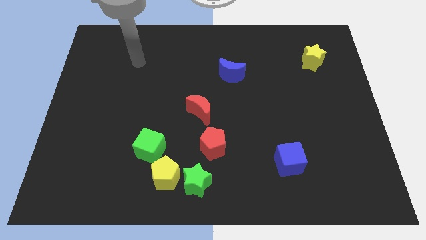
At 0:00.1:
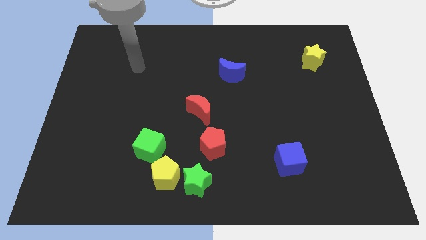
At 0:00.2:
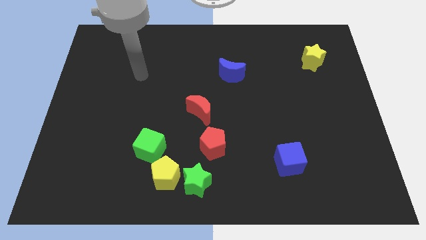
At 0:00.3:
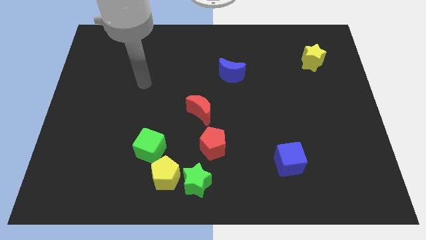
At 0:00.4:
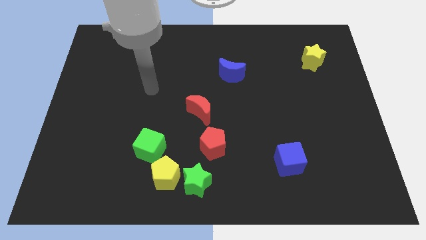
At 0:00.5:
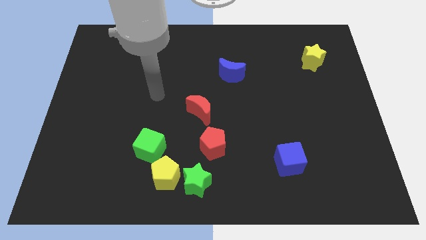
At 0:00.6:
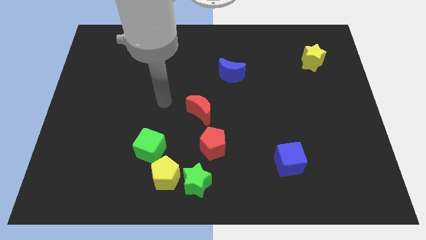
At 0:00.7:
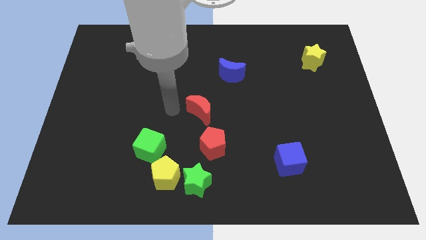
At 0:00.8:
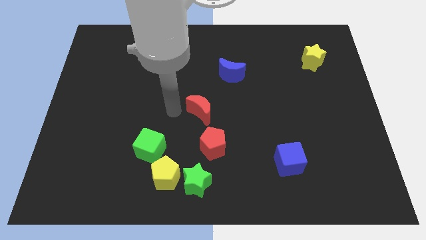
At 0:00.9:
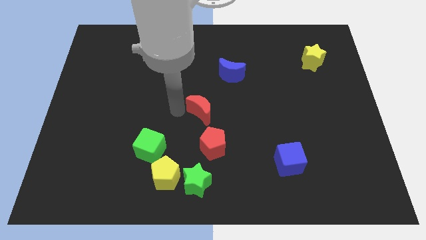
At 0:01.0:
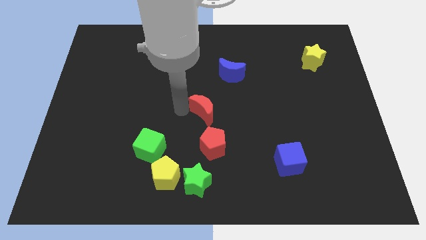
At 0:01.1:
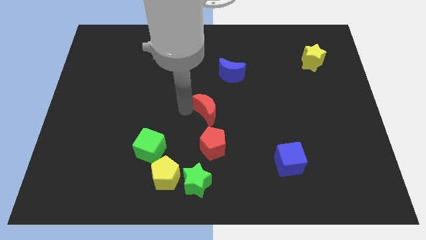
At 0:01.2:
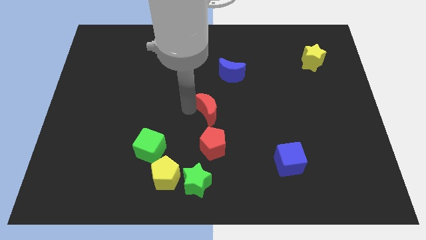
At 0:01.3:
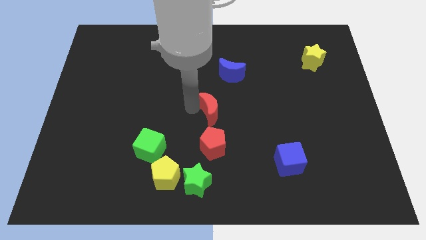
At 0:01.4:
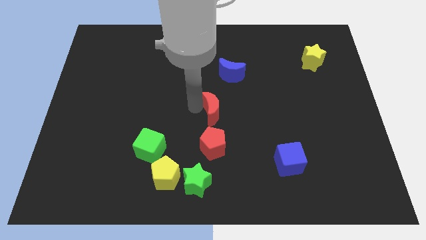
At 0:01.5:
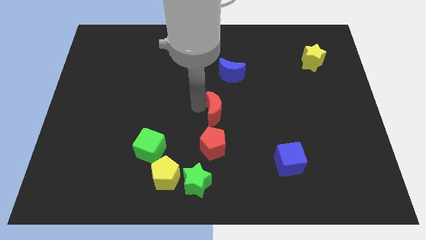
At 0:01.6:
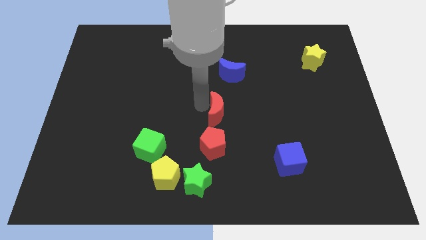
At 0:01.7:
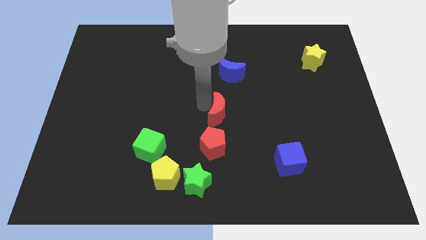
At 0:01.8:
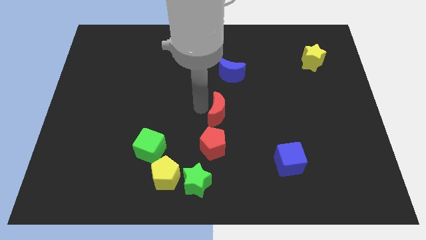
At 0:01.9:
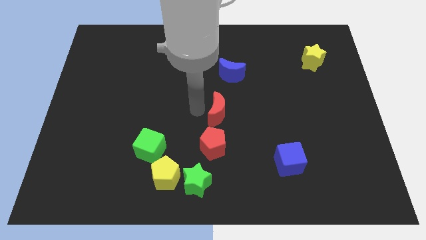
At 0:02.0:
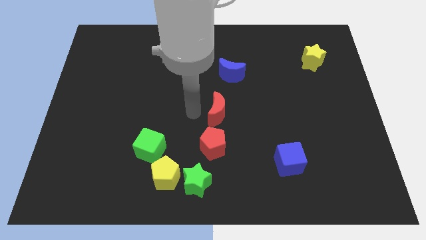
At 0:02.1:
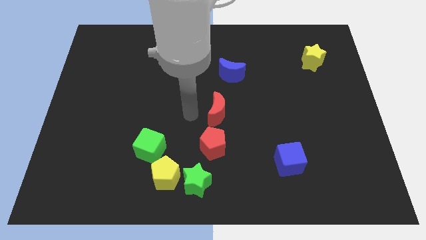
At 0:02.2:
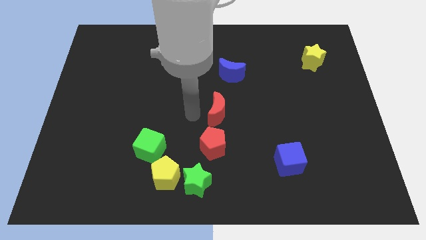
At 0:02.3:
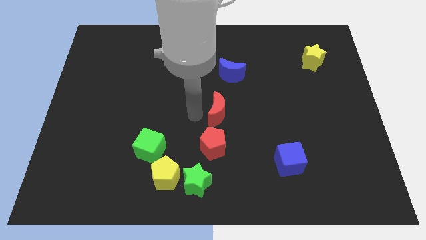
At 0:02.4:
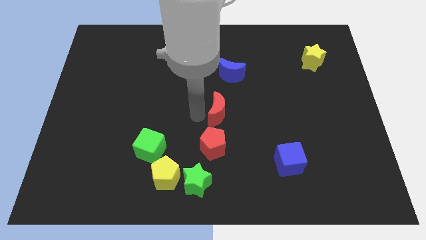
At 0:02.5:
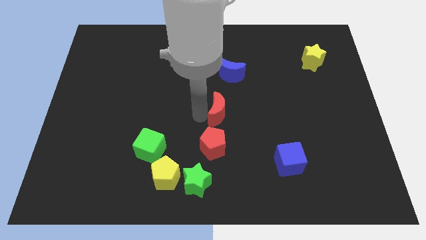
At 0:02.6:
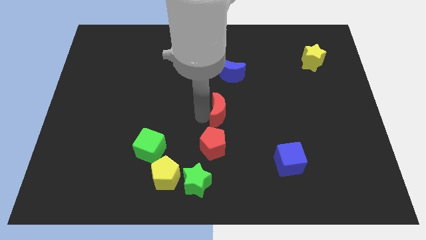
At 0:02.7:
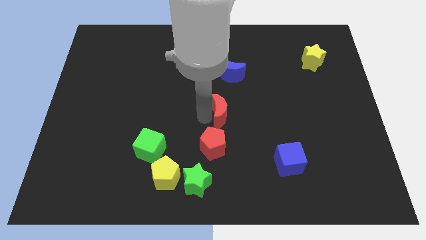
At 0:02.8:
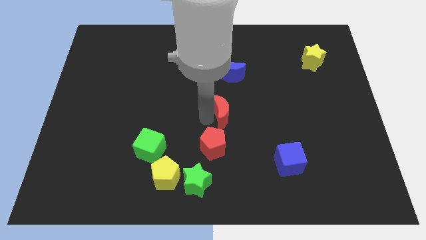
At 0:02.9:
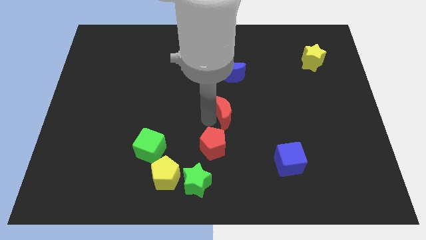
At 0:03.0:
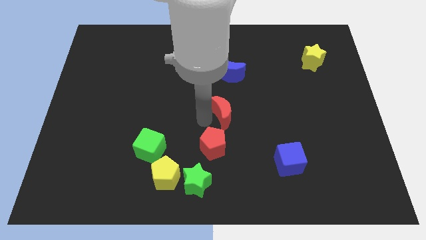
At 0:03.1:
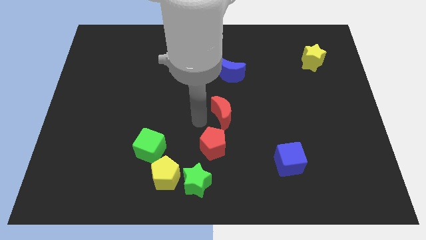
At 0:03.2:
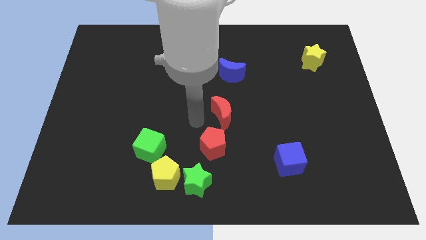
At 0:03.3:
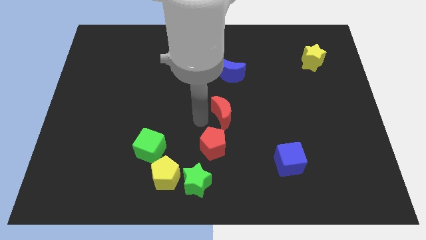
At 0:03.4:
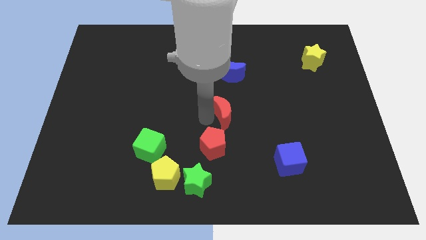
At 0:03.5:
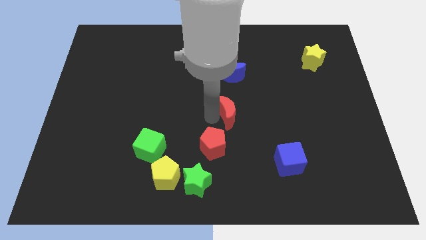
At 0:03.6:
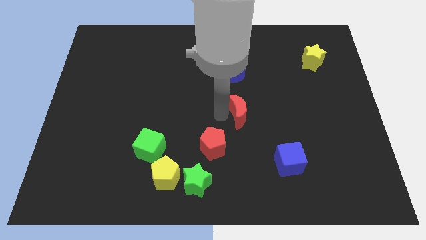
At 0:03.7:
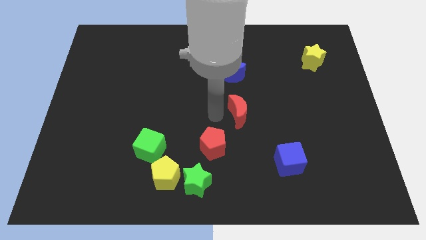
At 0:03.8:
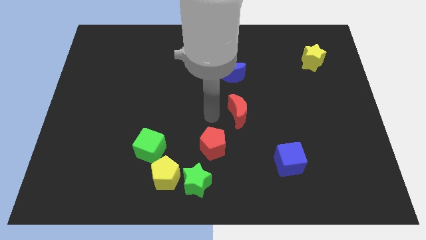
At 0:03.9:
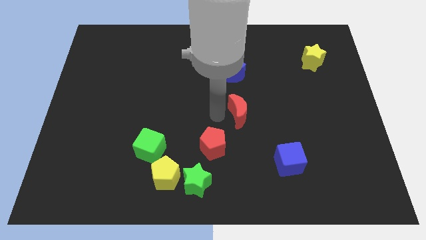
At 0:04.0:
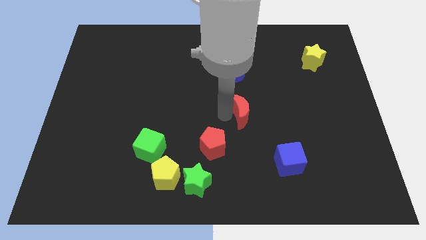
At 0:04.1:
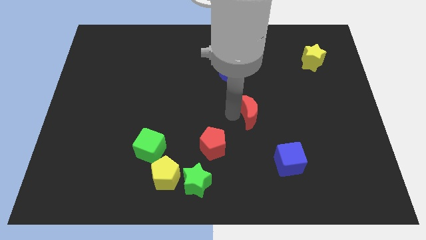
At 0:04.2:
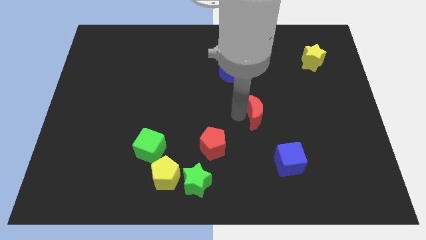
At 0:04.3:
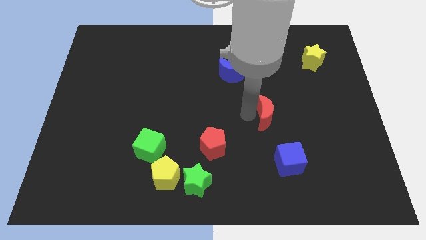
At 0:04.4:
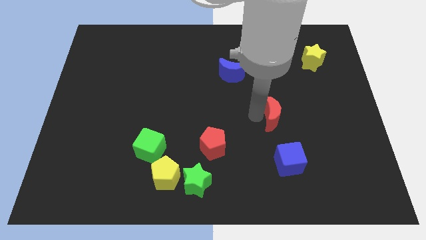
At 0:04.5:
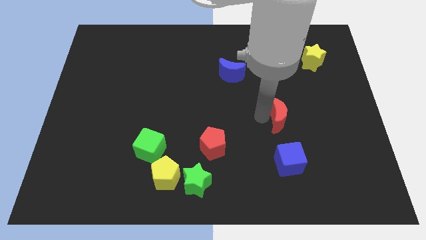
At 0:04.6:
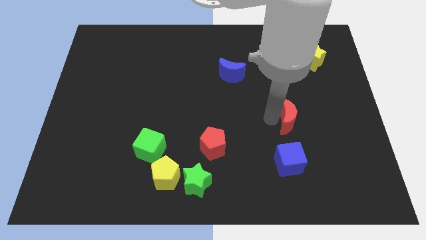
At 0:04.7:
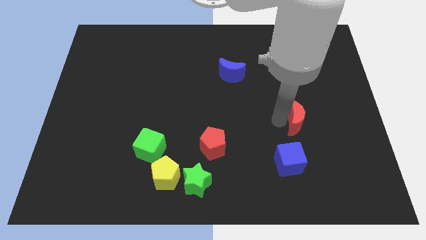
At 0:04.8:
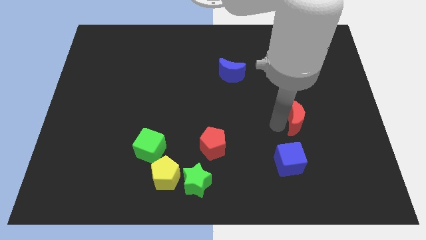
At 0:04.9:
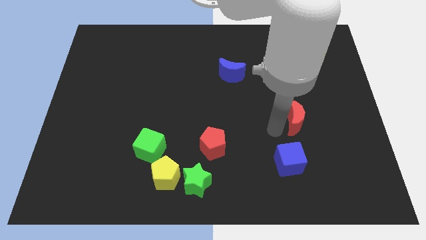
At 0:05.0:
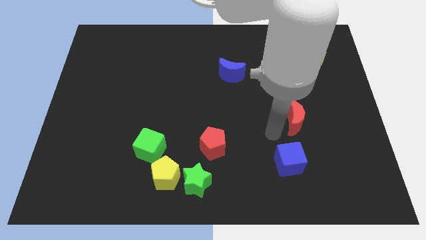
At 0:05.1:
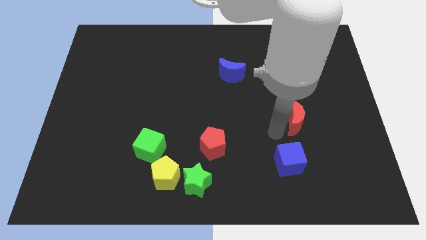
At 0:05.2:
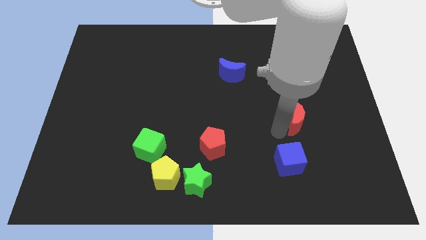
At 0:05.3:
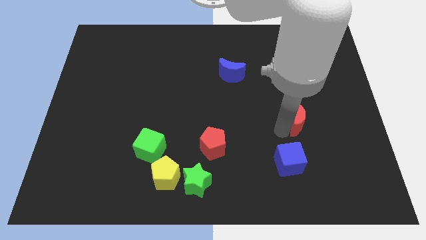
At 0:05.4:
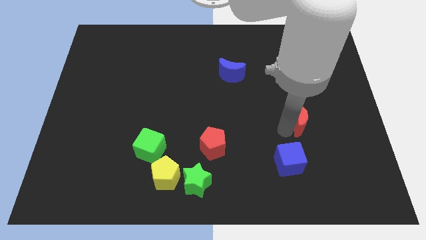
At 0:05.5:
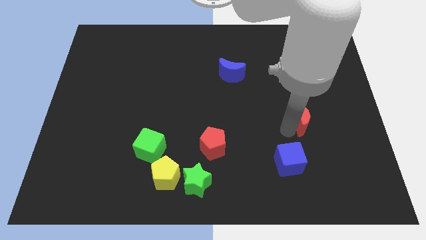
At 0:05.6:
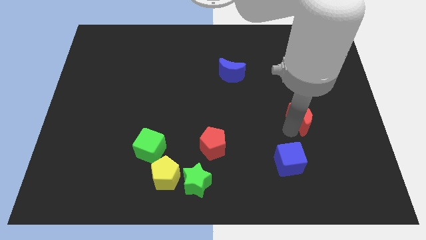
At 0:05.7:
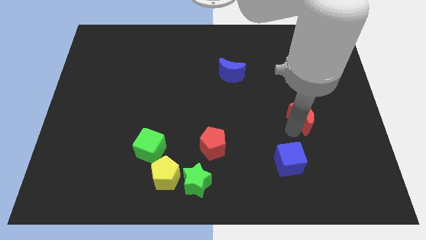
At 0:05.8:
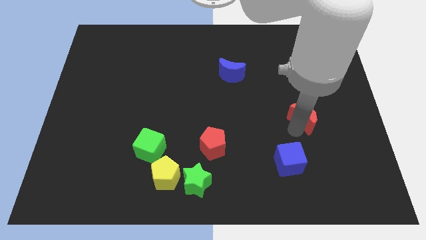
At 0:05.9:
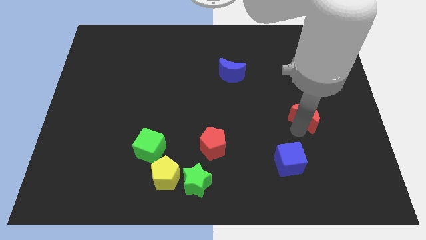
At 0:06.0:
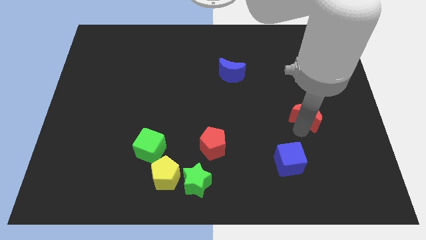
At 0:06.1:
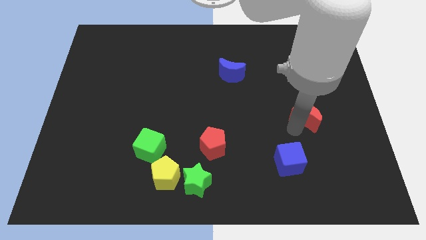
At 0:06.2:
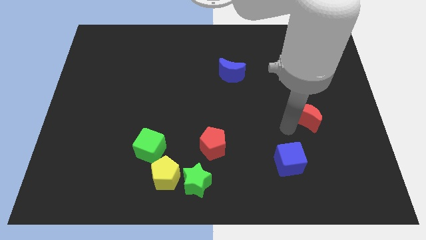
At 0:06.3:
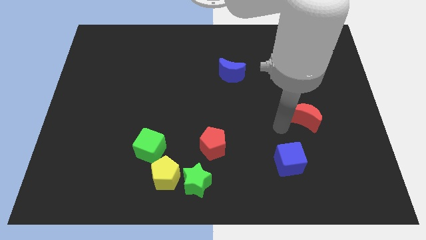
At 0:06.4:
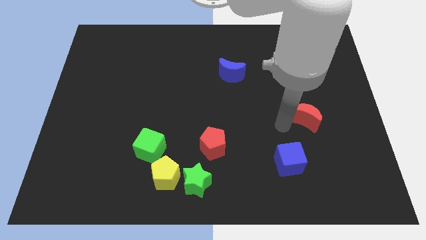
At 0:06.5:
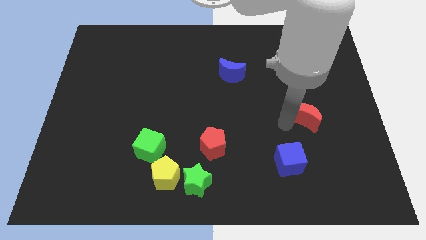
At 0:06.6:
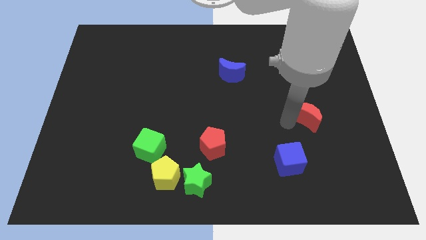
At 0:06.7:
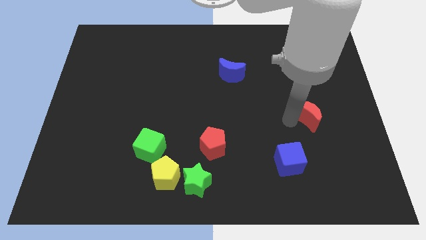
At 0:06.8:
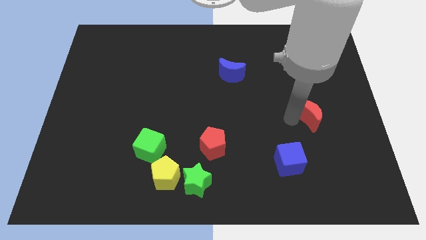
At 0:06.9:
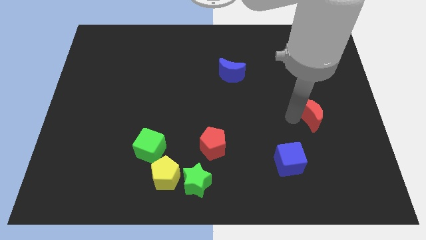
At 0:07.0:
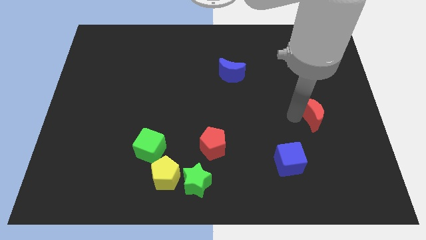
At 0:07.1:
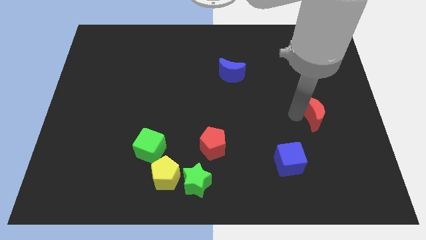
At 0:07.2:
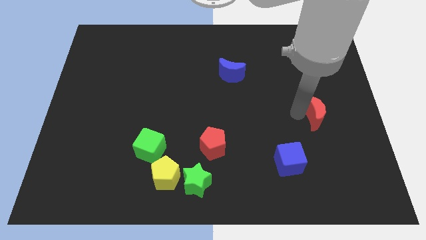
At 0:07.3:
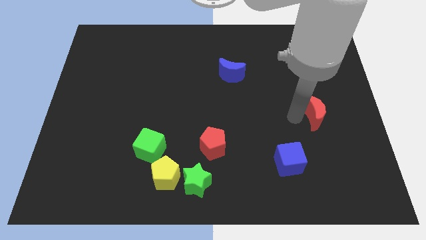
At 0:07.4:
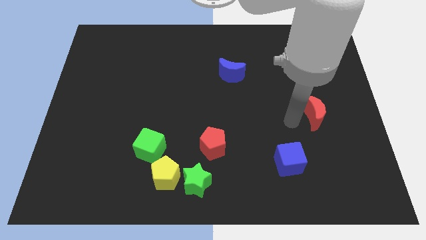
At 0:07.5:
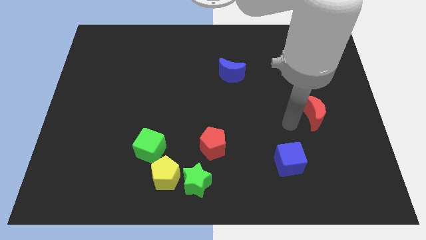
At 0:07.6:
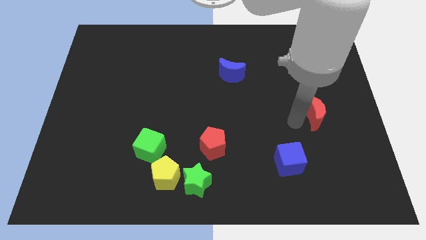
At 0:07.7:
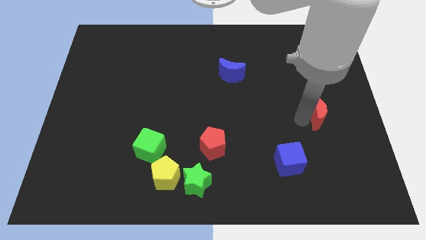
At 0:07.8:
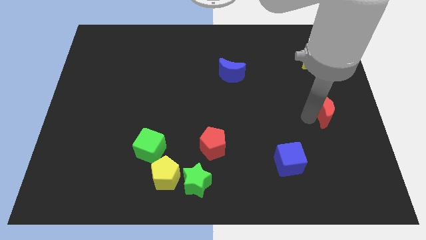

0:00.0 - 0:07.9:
move the red moon to the center right
